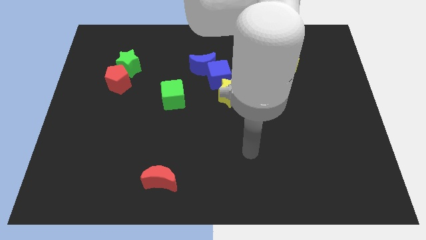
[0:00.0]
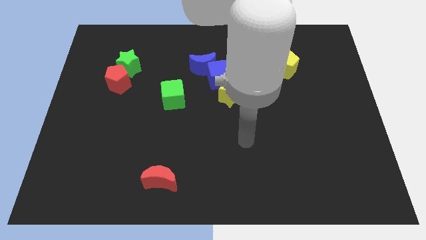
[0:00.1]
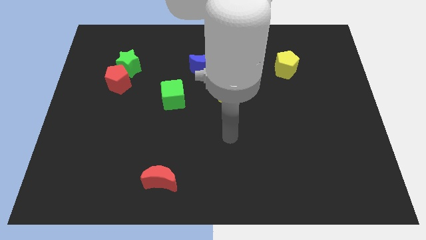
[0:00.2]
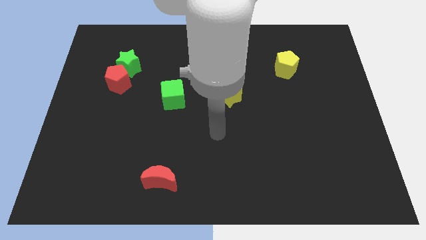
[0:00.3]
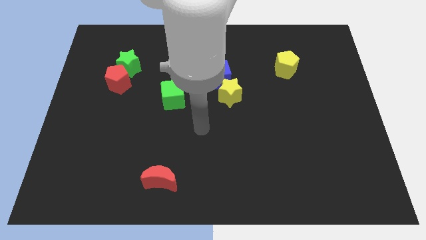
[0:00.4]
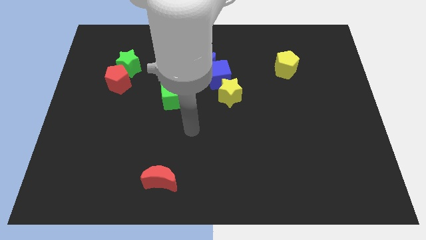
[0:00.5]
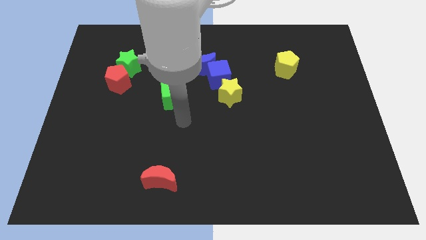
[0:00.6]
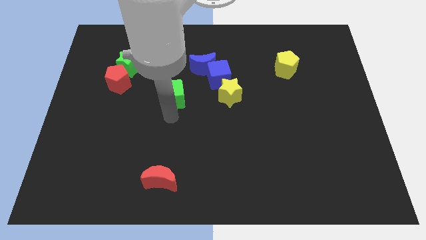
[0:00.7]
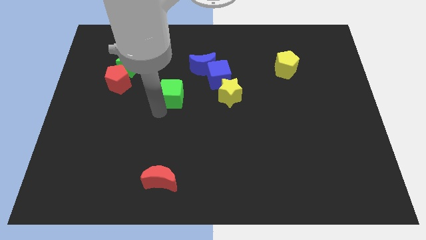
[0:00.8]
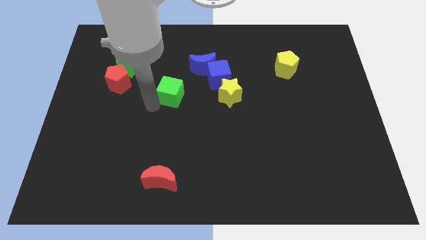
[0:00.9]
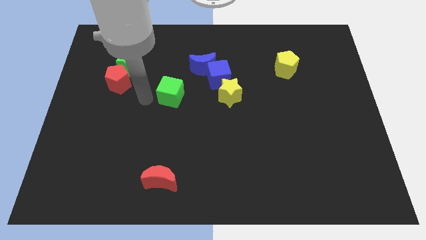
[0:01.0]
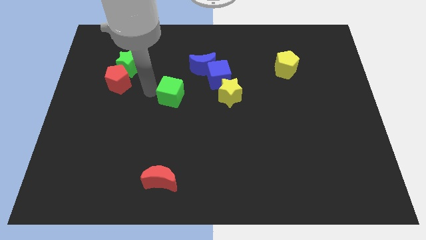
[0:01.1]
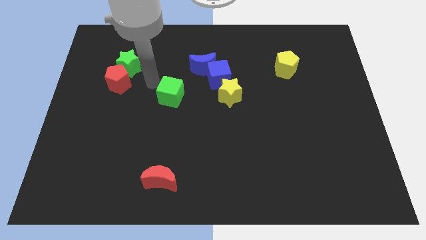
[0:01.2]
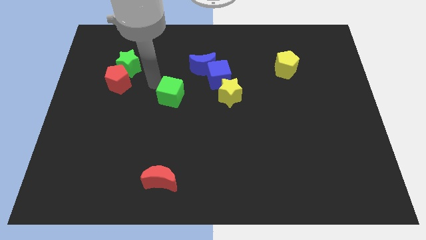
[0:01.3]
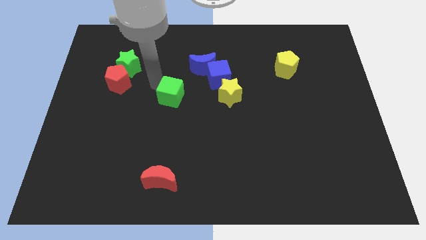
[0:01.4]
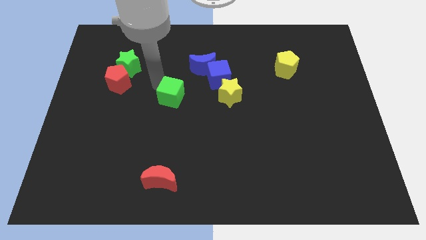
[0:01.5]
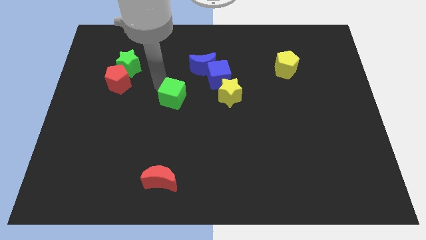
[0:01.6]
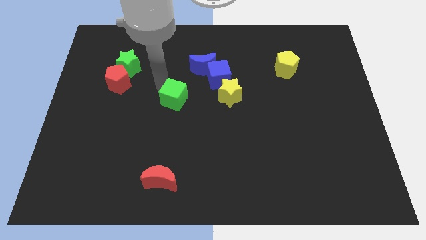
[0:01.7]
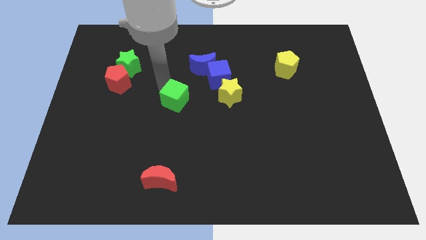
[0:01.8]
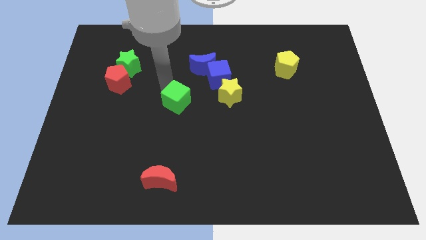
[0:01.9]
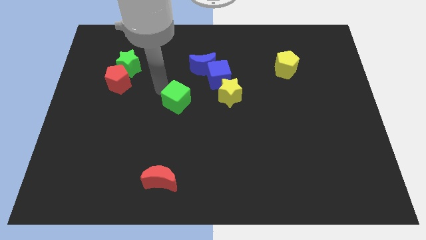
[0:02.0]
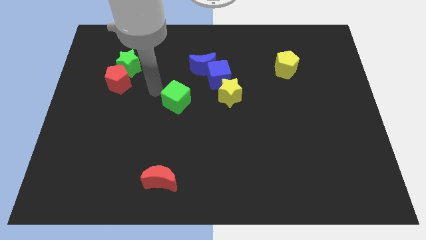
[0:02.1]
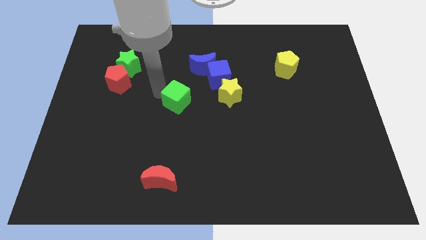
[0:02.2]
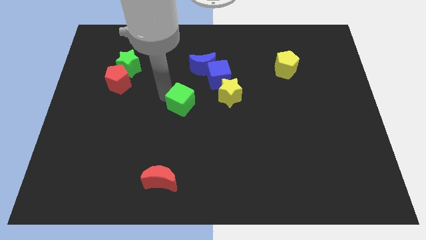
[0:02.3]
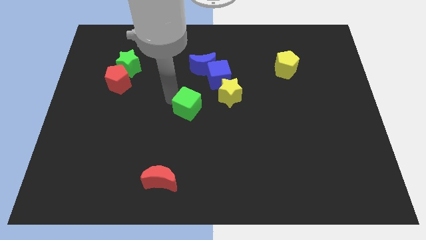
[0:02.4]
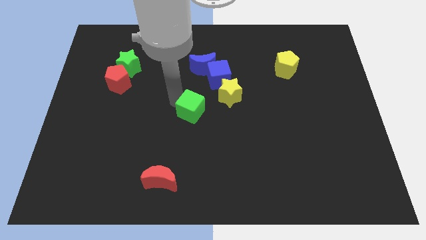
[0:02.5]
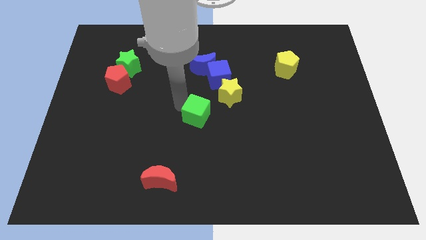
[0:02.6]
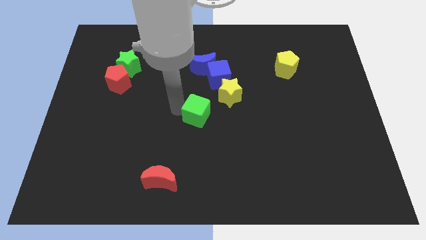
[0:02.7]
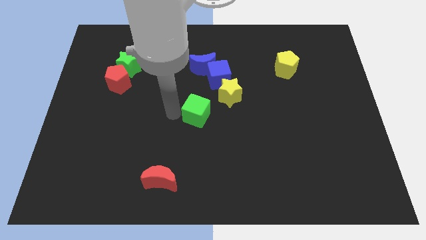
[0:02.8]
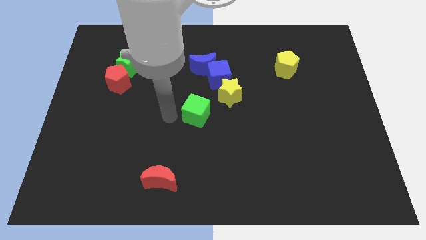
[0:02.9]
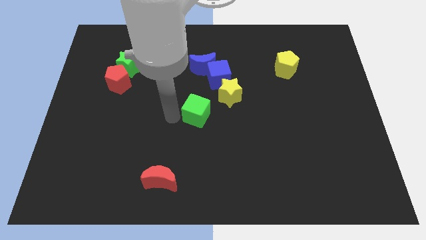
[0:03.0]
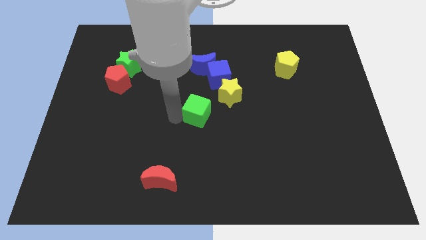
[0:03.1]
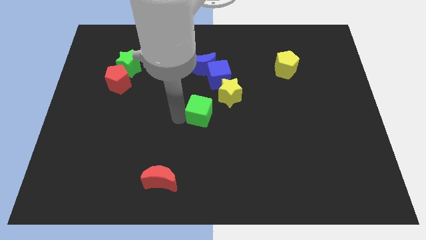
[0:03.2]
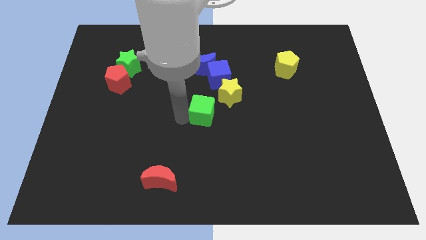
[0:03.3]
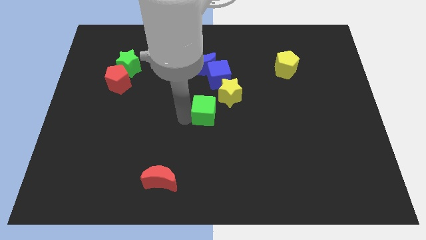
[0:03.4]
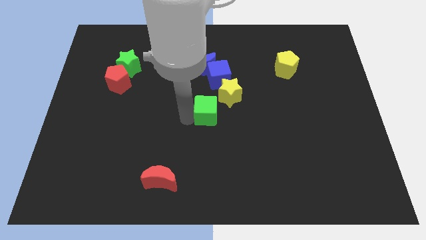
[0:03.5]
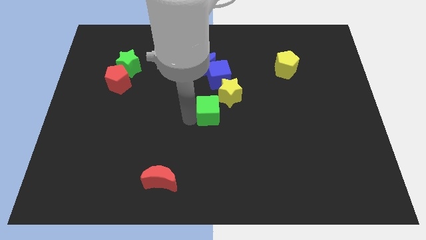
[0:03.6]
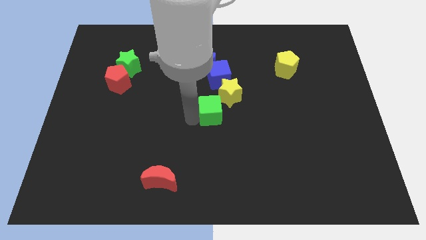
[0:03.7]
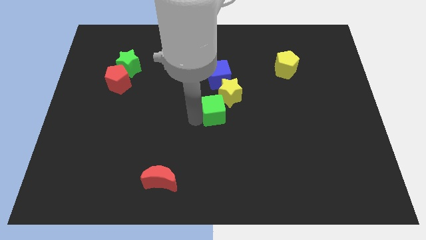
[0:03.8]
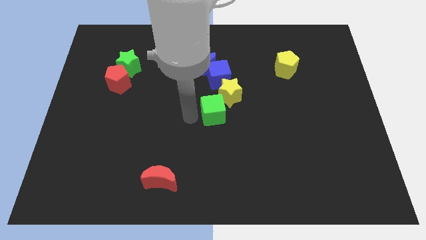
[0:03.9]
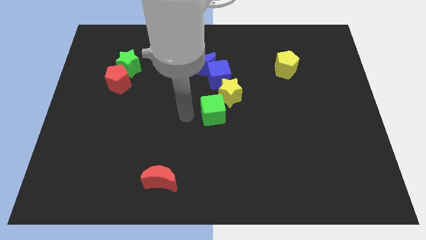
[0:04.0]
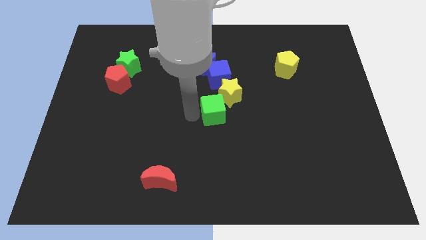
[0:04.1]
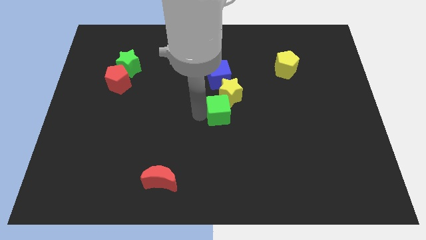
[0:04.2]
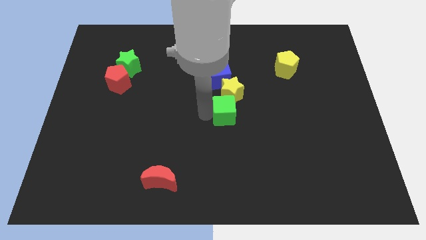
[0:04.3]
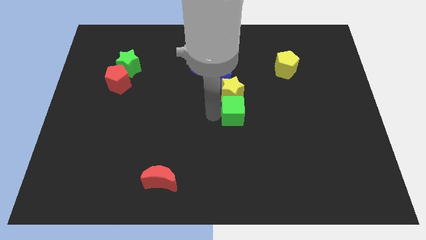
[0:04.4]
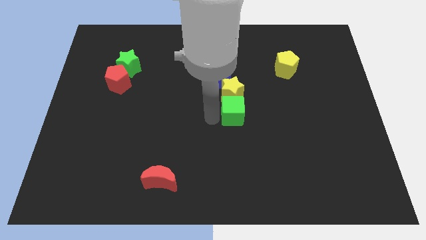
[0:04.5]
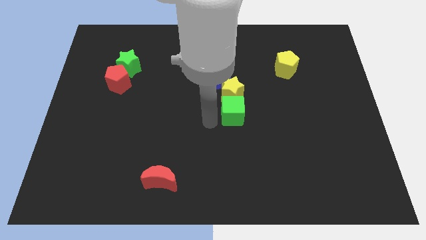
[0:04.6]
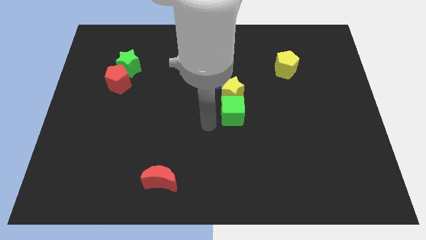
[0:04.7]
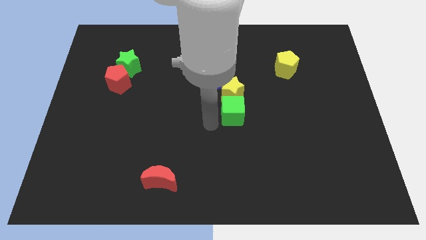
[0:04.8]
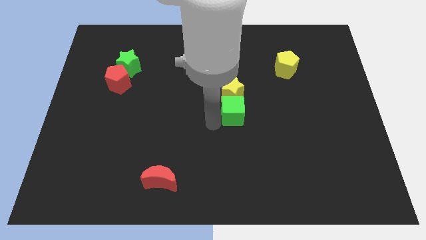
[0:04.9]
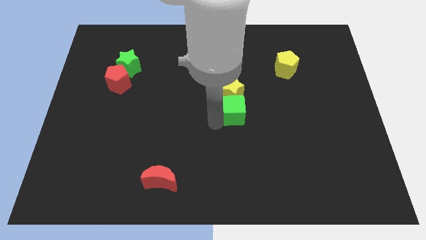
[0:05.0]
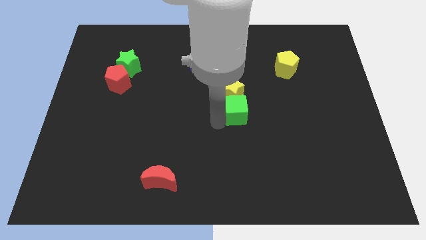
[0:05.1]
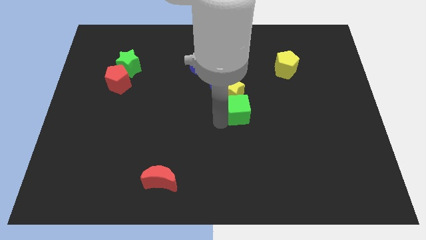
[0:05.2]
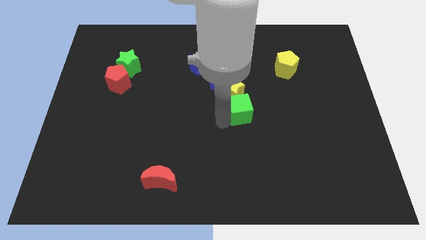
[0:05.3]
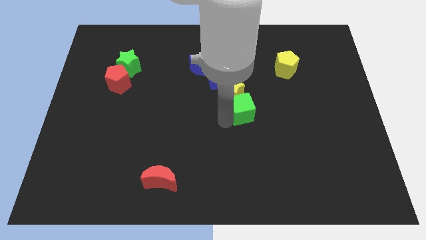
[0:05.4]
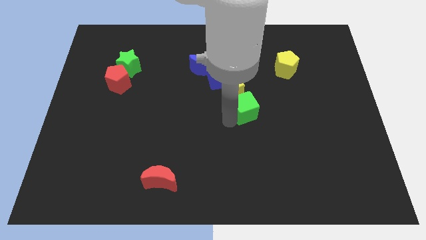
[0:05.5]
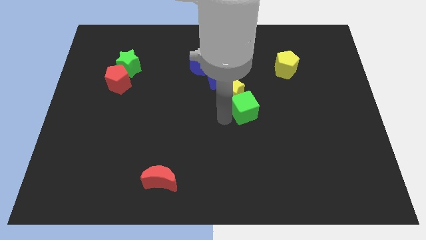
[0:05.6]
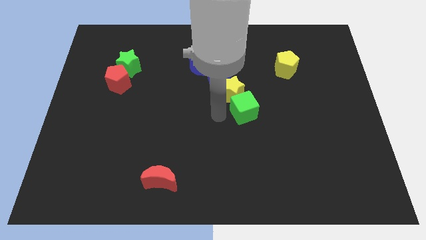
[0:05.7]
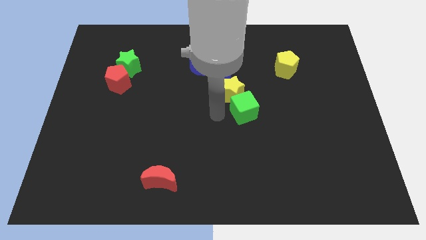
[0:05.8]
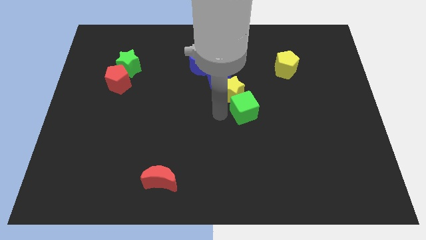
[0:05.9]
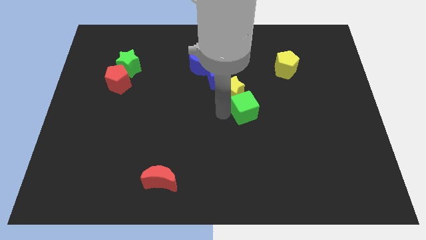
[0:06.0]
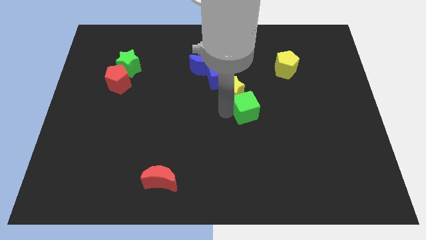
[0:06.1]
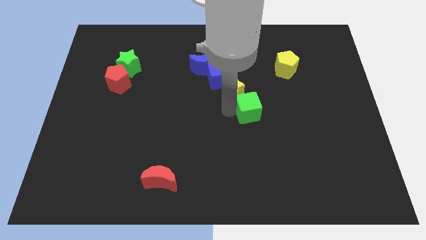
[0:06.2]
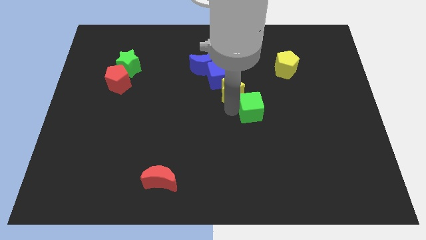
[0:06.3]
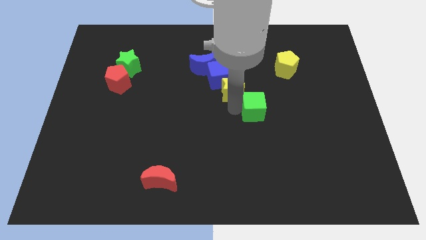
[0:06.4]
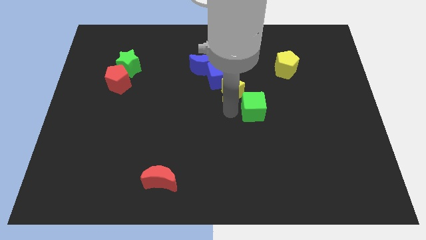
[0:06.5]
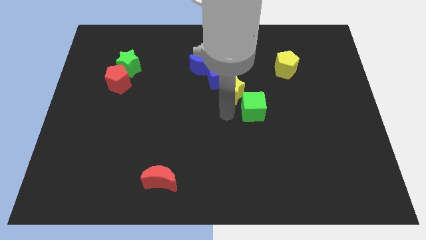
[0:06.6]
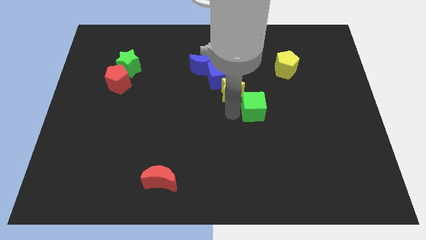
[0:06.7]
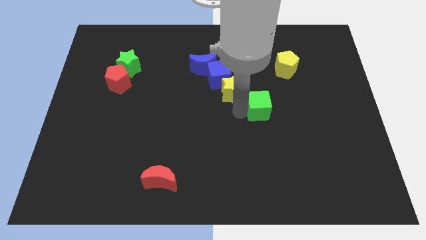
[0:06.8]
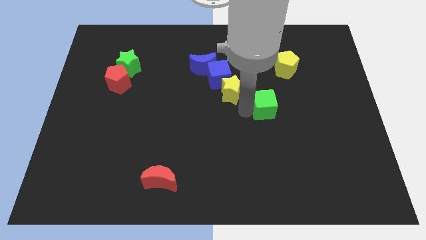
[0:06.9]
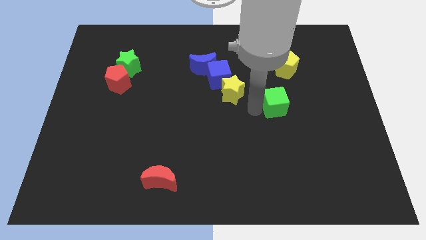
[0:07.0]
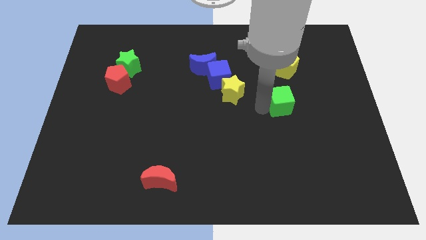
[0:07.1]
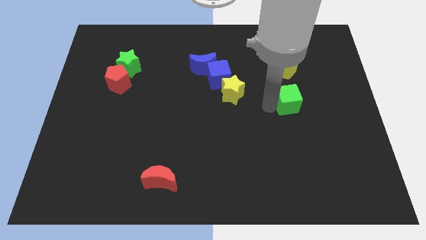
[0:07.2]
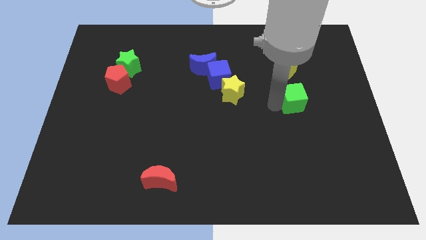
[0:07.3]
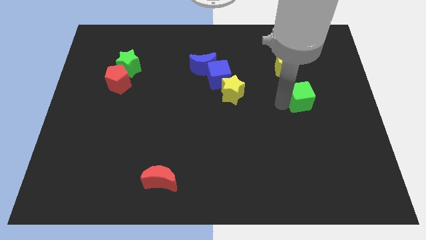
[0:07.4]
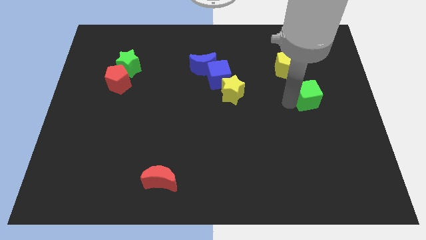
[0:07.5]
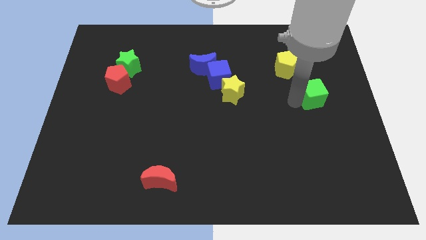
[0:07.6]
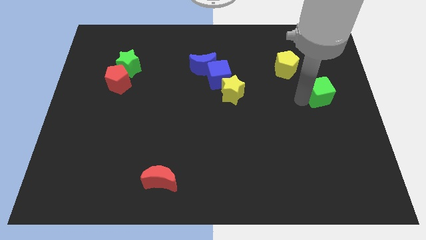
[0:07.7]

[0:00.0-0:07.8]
slide the green cube to the right side
